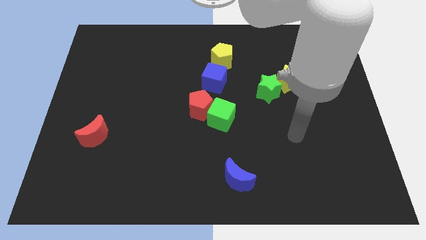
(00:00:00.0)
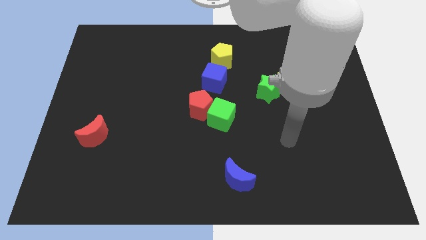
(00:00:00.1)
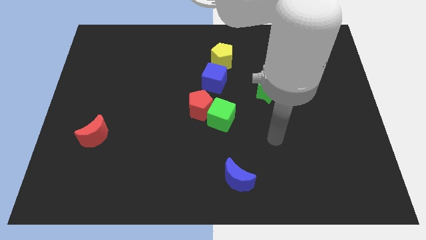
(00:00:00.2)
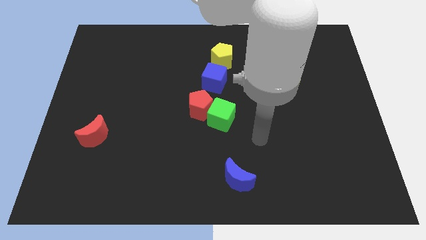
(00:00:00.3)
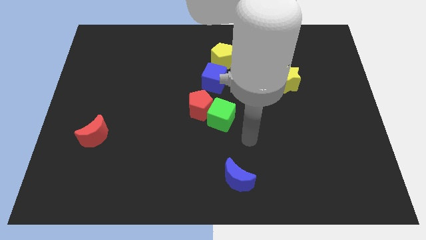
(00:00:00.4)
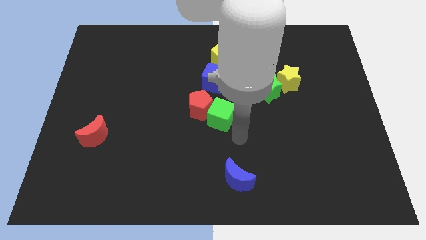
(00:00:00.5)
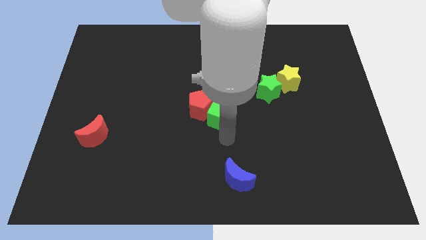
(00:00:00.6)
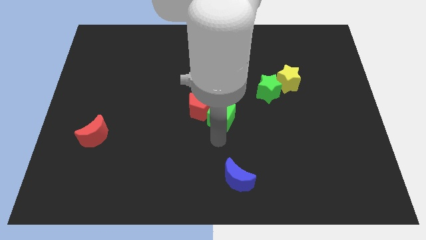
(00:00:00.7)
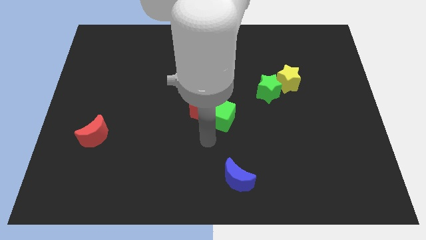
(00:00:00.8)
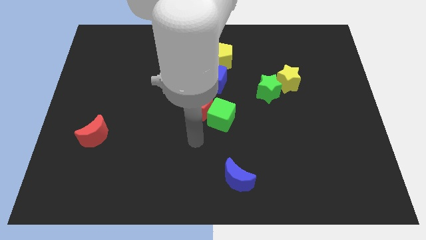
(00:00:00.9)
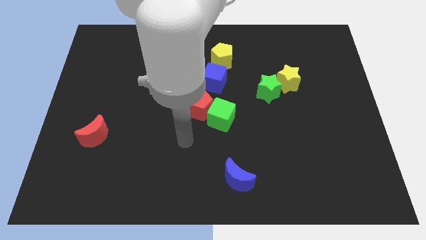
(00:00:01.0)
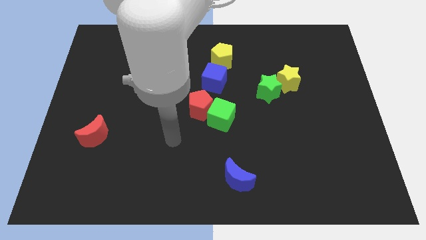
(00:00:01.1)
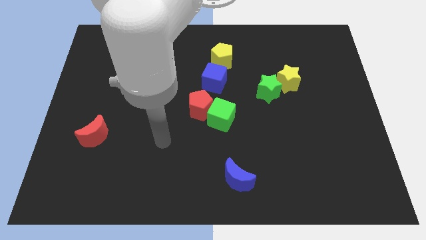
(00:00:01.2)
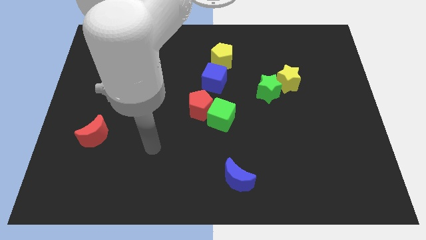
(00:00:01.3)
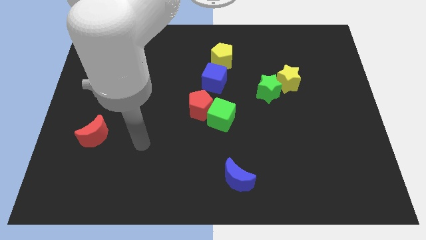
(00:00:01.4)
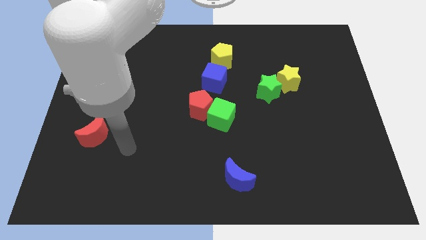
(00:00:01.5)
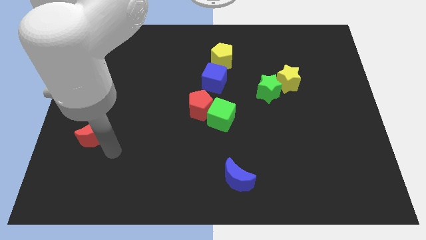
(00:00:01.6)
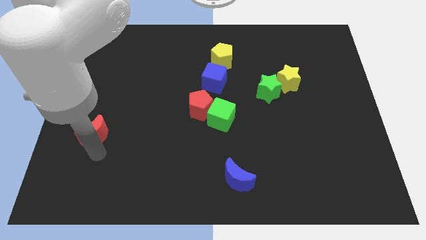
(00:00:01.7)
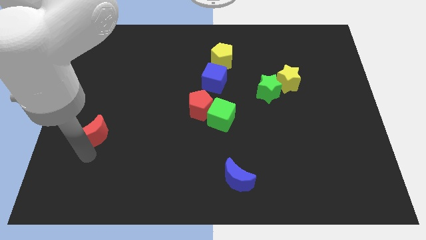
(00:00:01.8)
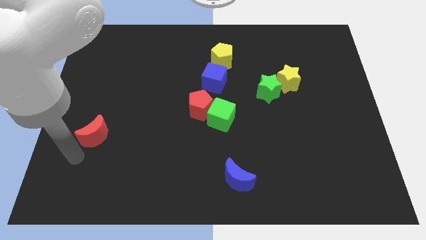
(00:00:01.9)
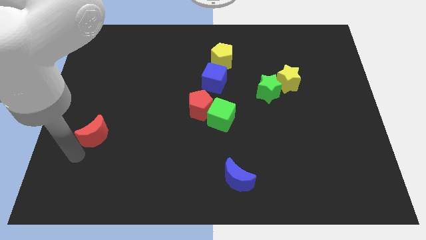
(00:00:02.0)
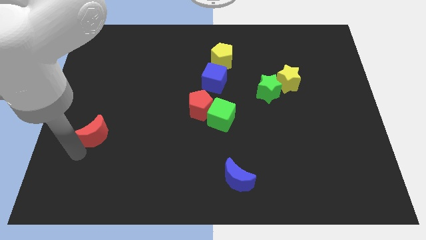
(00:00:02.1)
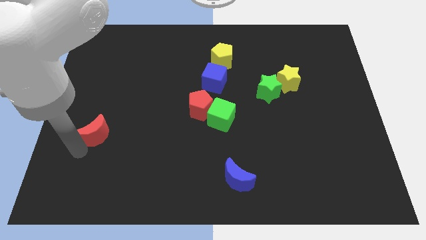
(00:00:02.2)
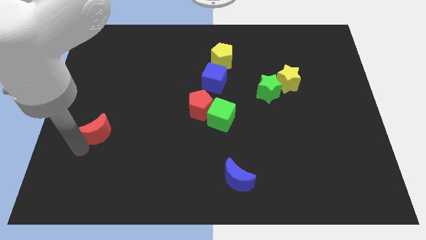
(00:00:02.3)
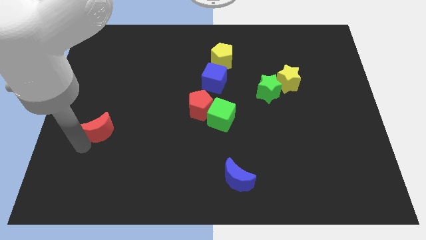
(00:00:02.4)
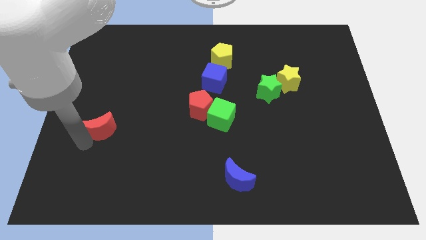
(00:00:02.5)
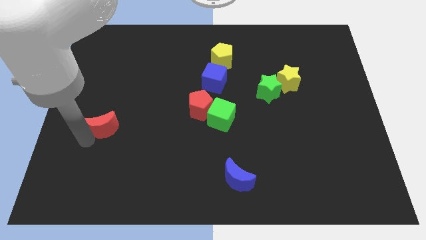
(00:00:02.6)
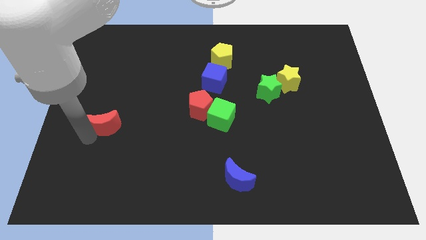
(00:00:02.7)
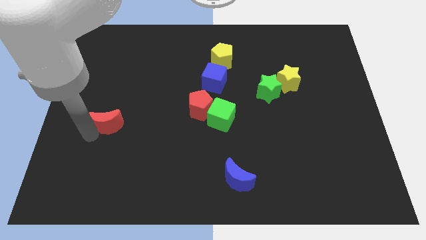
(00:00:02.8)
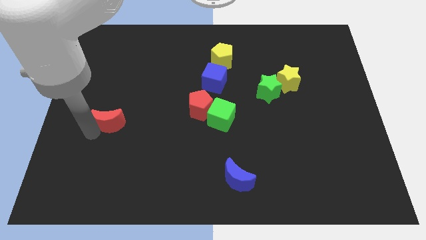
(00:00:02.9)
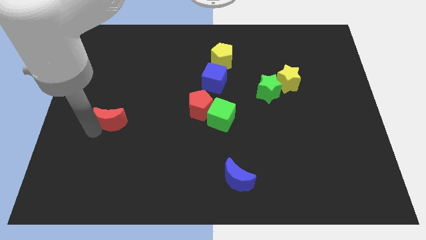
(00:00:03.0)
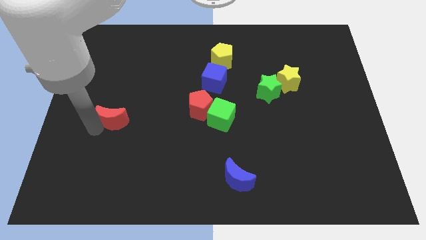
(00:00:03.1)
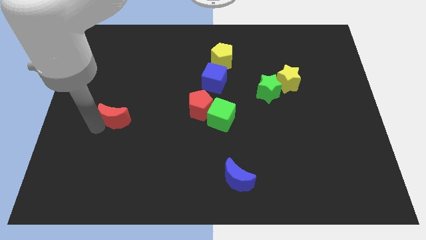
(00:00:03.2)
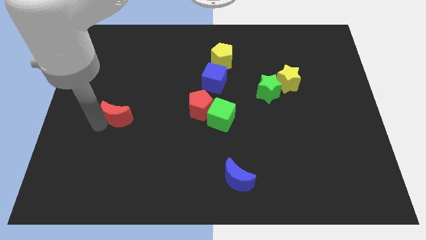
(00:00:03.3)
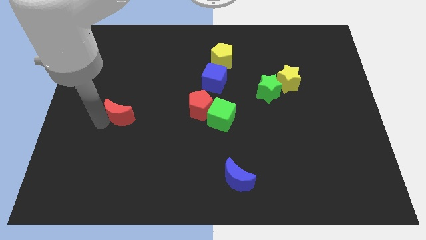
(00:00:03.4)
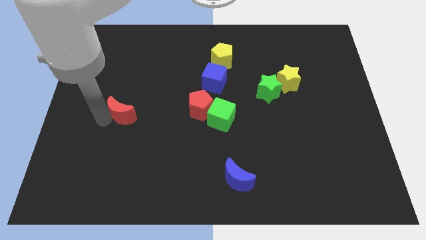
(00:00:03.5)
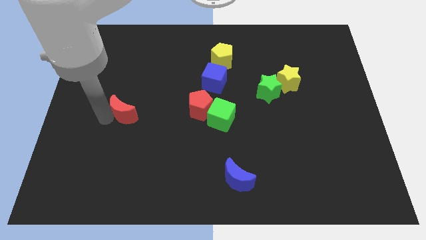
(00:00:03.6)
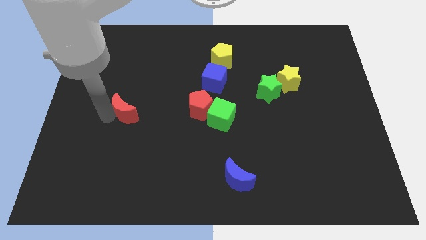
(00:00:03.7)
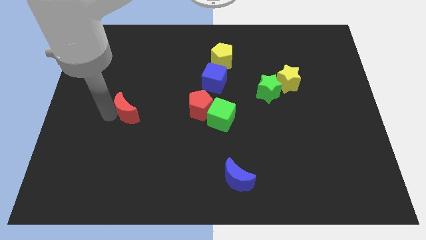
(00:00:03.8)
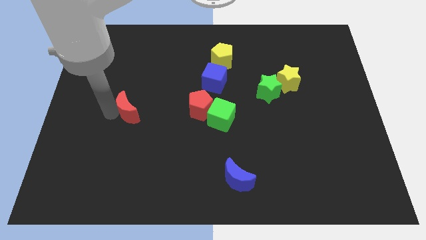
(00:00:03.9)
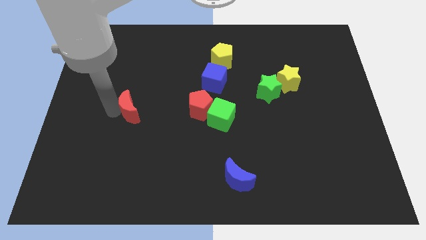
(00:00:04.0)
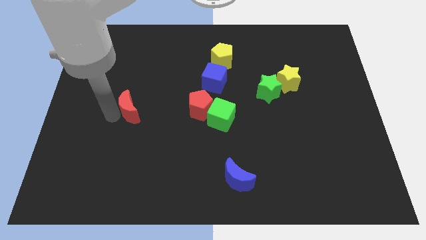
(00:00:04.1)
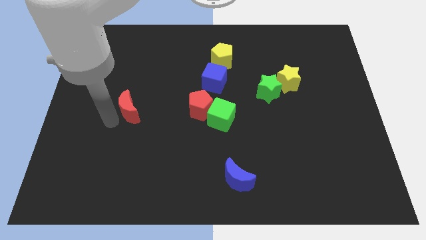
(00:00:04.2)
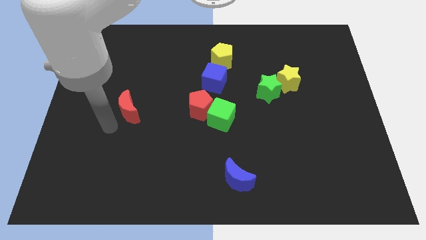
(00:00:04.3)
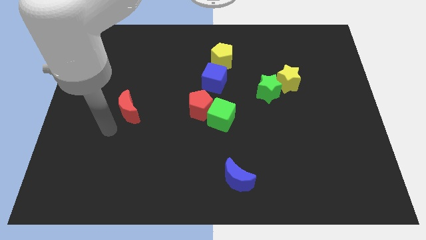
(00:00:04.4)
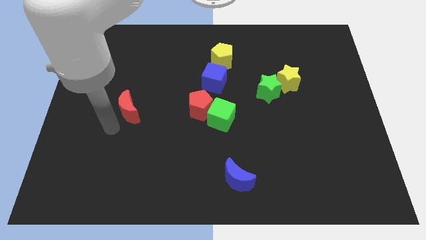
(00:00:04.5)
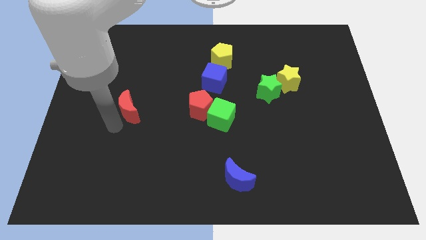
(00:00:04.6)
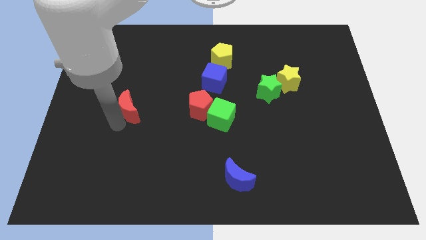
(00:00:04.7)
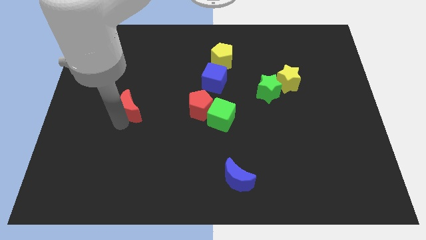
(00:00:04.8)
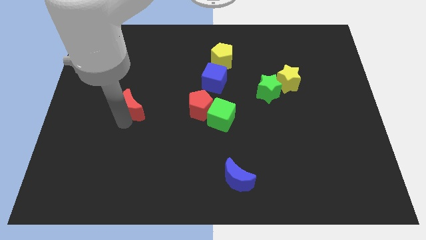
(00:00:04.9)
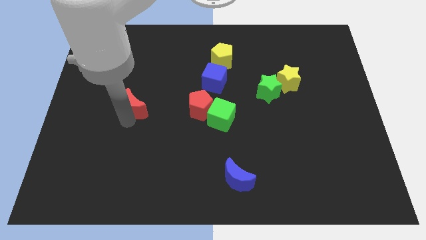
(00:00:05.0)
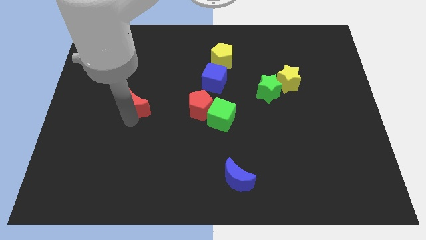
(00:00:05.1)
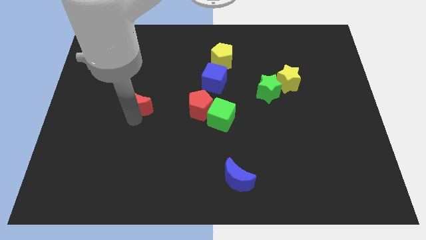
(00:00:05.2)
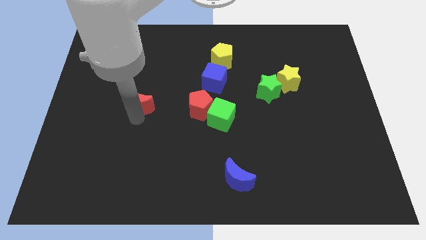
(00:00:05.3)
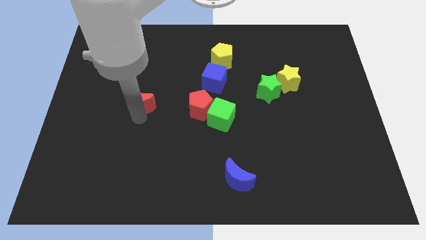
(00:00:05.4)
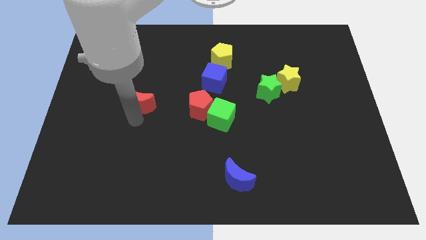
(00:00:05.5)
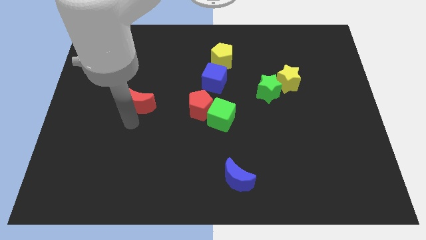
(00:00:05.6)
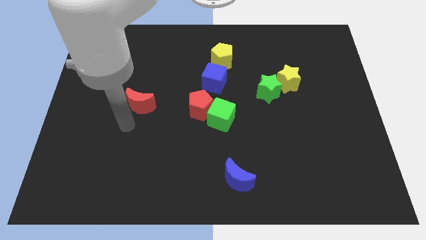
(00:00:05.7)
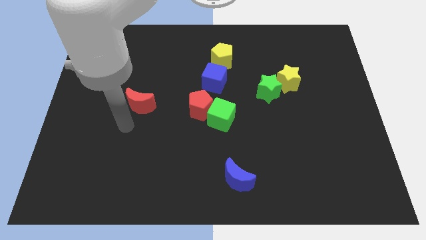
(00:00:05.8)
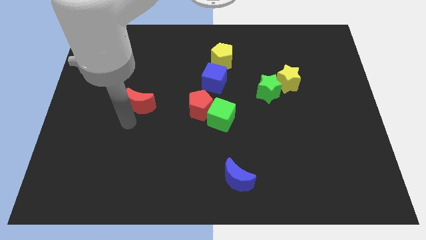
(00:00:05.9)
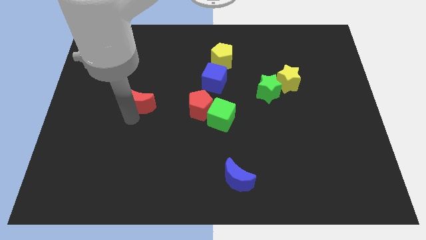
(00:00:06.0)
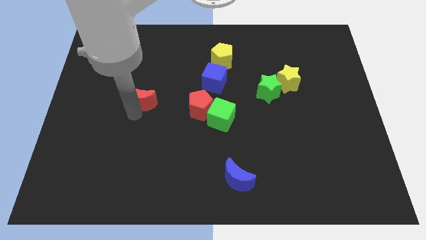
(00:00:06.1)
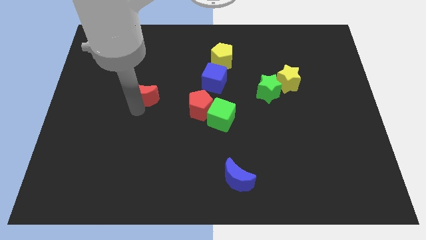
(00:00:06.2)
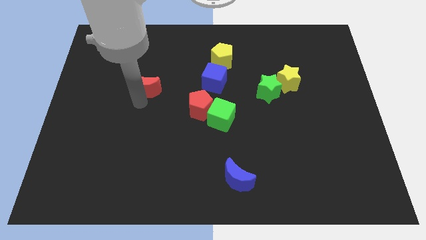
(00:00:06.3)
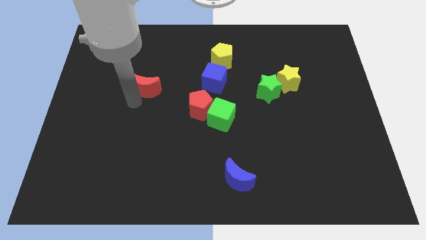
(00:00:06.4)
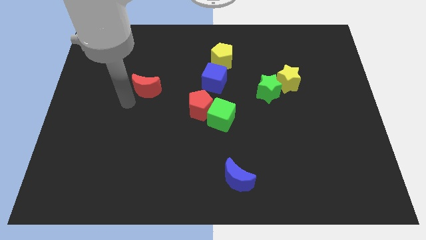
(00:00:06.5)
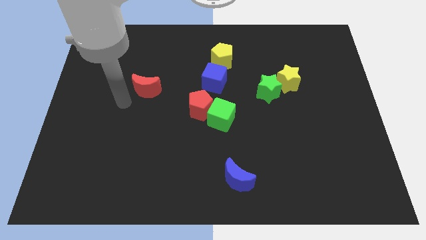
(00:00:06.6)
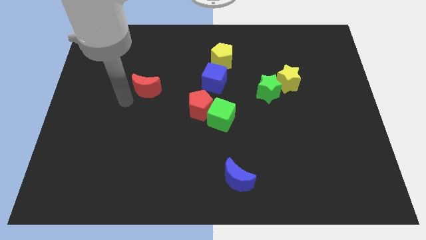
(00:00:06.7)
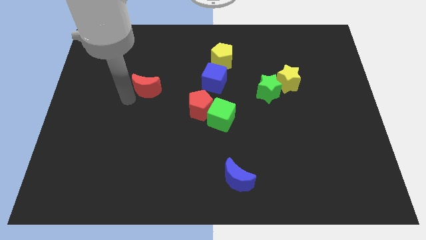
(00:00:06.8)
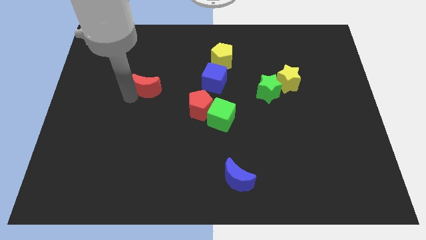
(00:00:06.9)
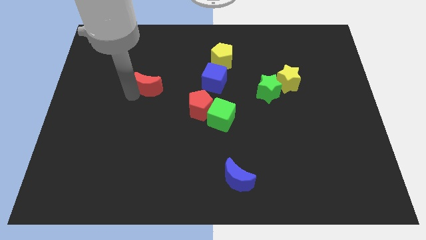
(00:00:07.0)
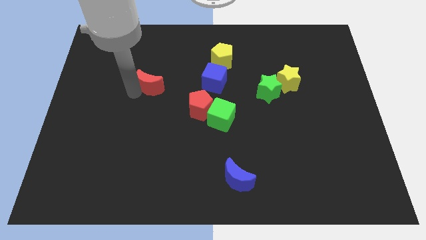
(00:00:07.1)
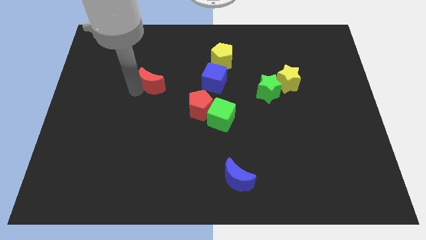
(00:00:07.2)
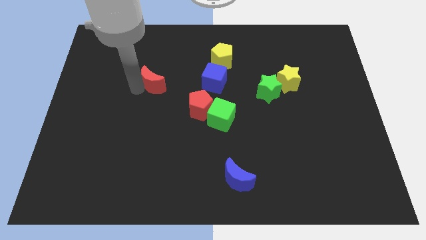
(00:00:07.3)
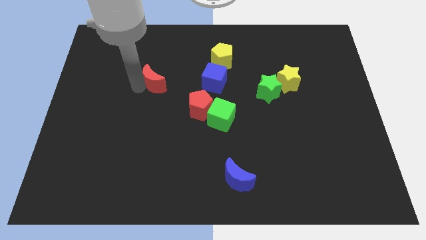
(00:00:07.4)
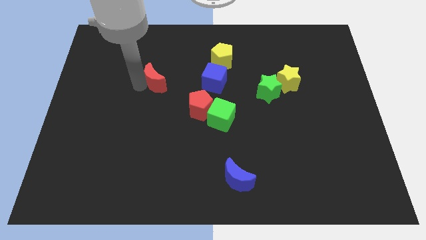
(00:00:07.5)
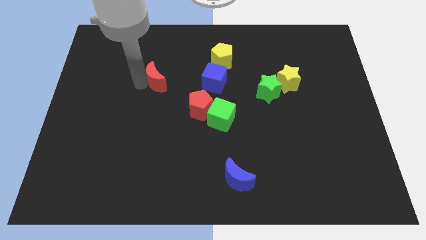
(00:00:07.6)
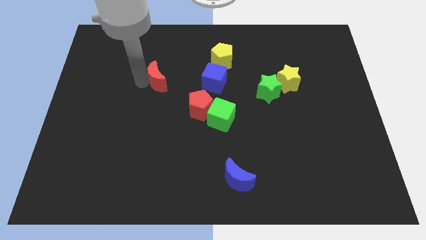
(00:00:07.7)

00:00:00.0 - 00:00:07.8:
slide the red moon up and to the right diagonally
